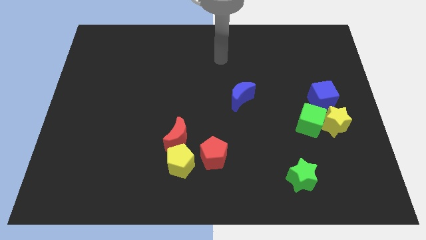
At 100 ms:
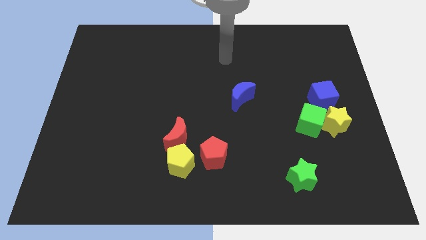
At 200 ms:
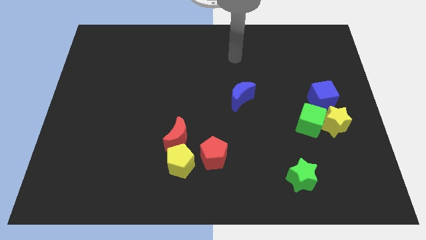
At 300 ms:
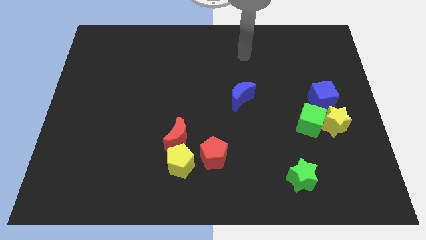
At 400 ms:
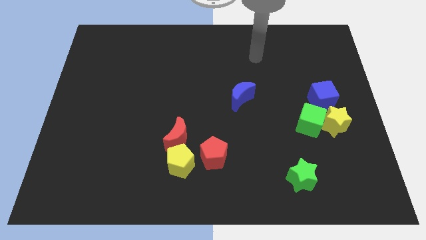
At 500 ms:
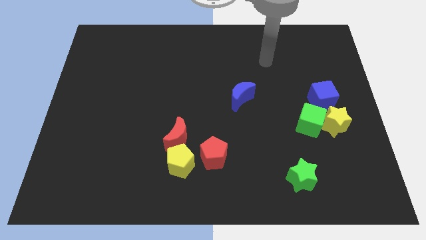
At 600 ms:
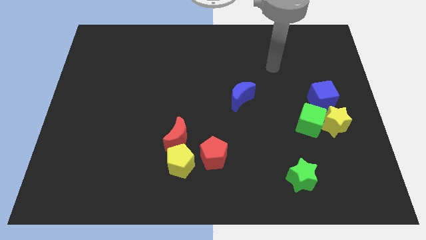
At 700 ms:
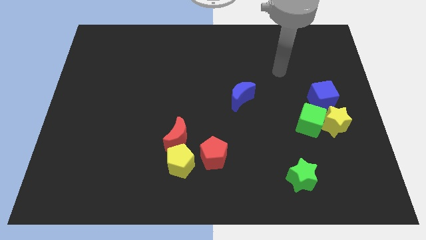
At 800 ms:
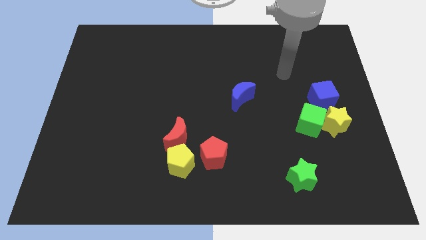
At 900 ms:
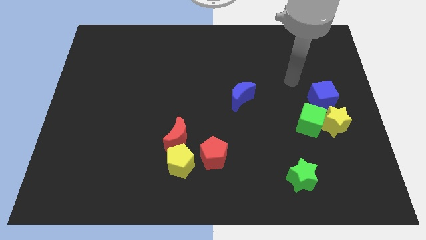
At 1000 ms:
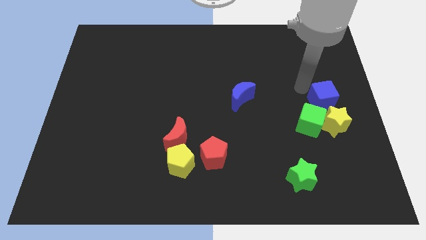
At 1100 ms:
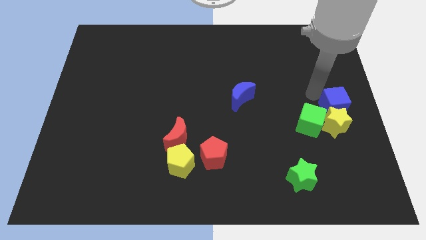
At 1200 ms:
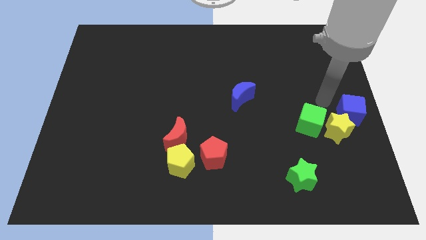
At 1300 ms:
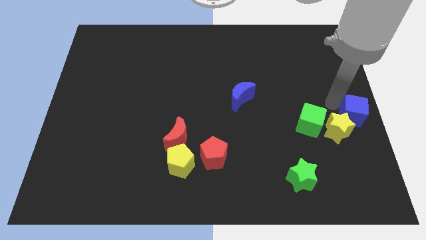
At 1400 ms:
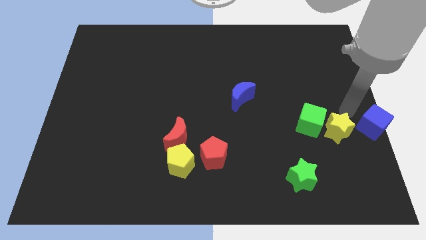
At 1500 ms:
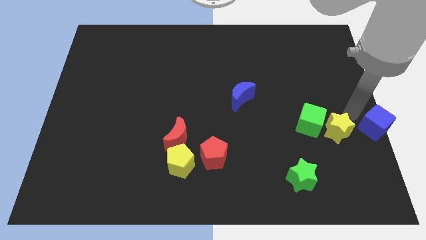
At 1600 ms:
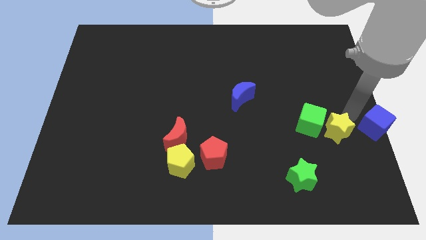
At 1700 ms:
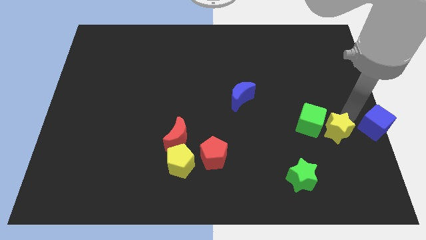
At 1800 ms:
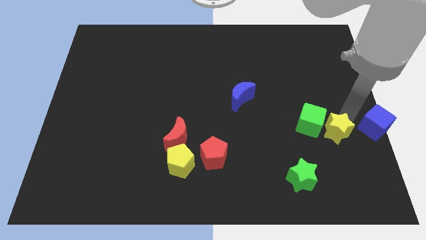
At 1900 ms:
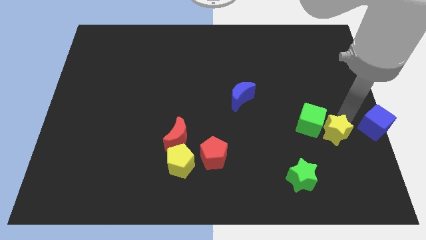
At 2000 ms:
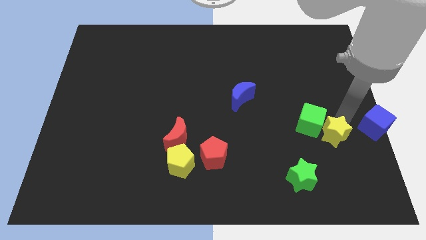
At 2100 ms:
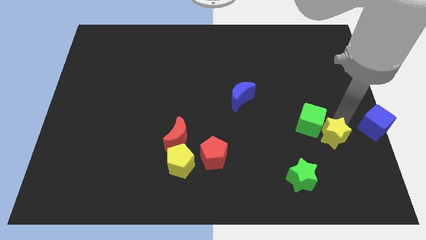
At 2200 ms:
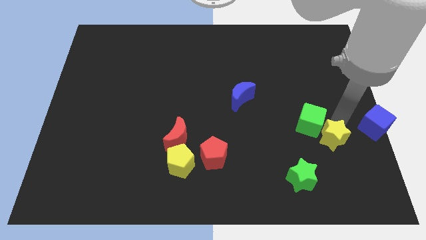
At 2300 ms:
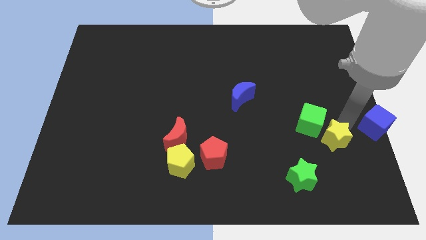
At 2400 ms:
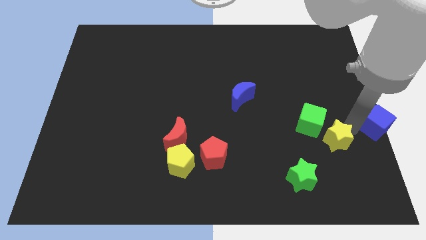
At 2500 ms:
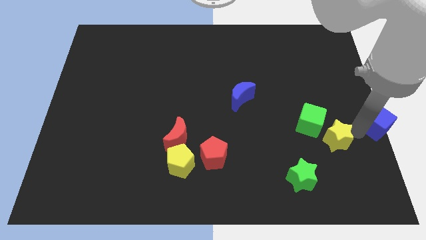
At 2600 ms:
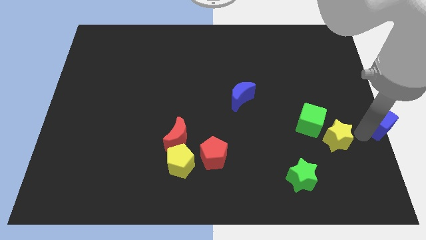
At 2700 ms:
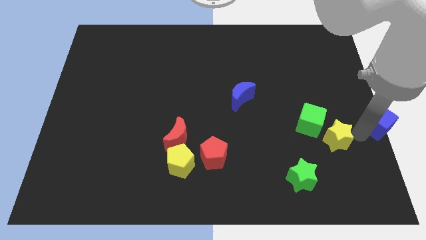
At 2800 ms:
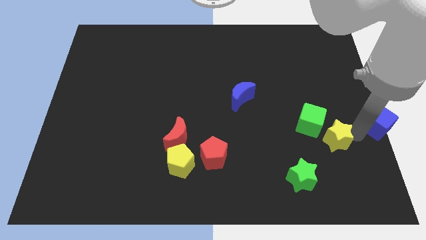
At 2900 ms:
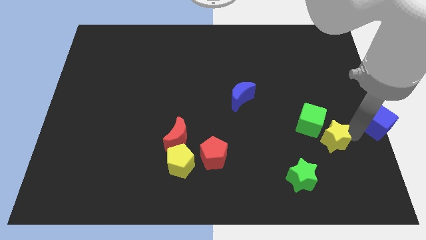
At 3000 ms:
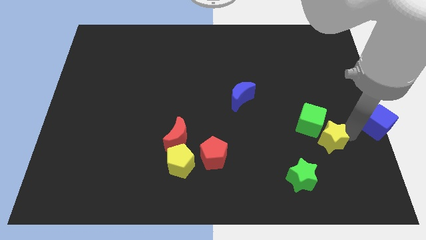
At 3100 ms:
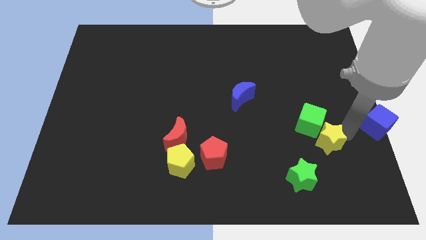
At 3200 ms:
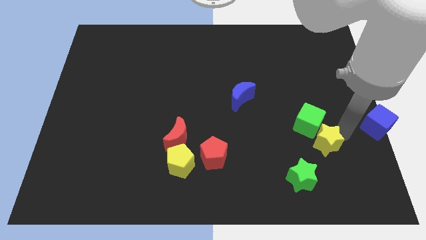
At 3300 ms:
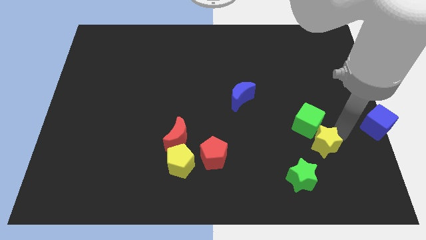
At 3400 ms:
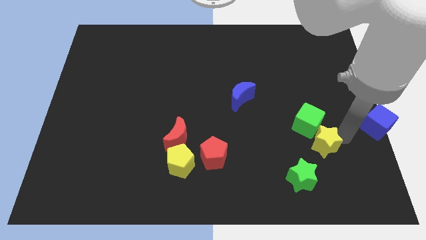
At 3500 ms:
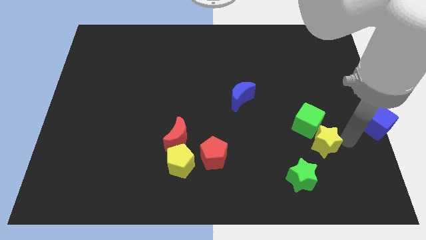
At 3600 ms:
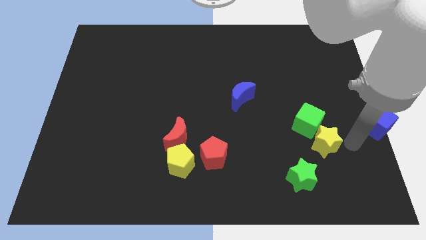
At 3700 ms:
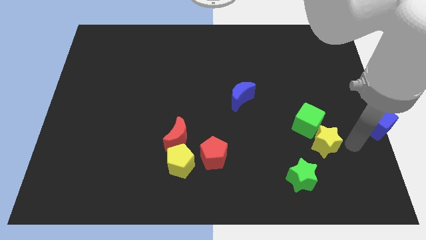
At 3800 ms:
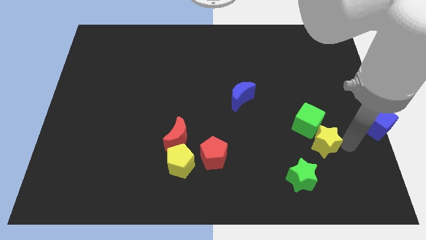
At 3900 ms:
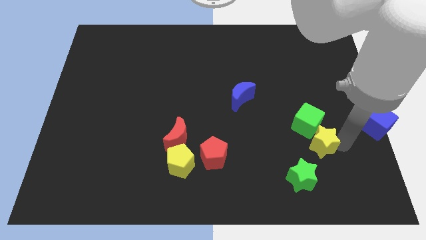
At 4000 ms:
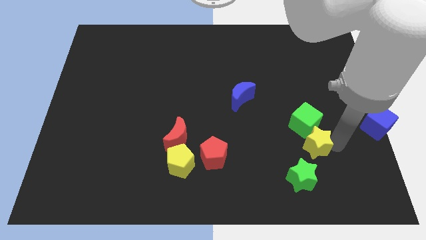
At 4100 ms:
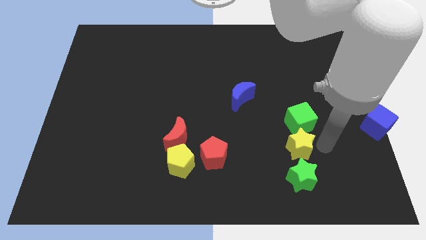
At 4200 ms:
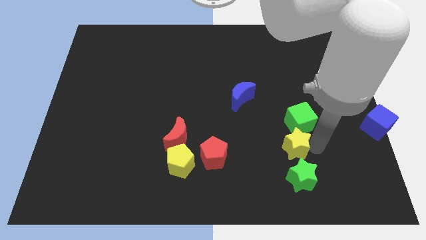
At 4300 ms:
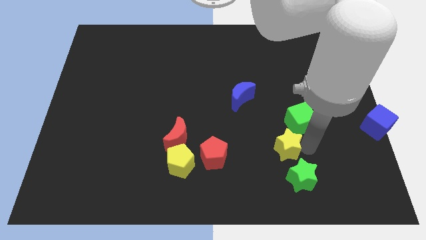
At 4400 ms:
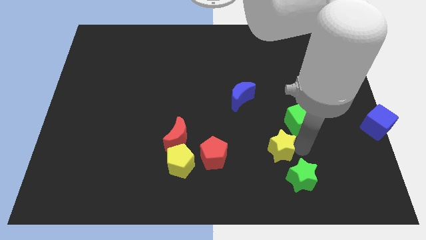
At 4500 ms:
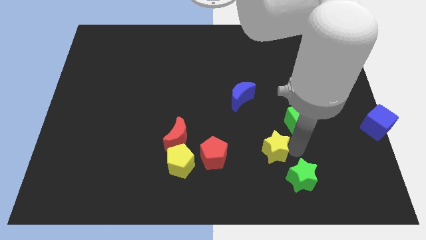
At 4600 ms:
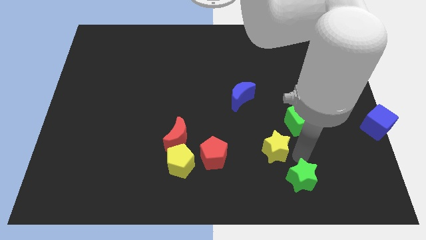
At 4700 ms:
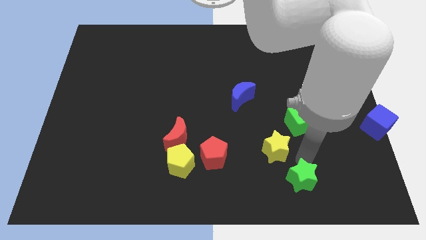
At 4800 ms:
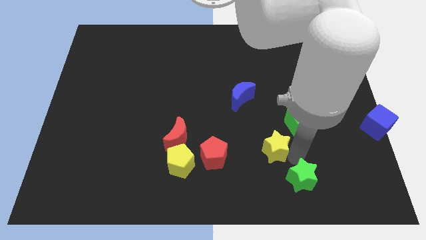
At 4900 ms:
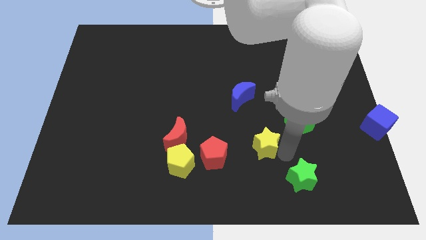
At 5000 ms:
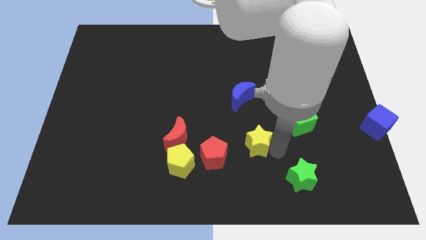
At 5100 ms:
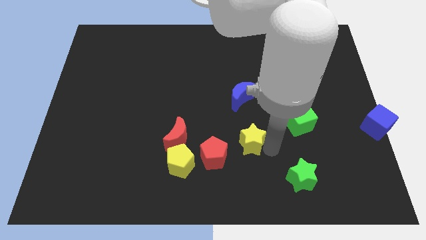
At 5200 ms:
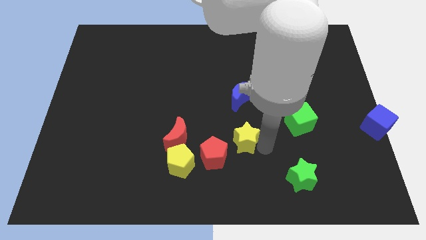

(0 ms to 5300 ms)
slide the yellow star to the left

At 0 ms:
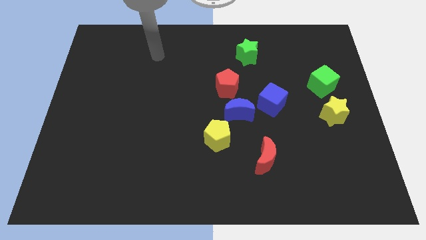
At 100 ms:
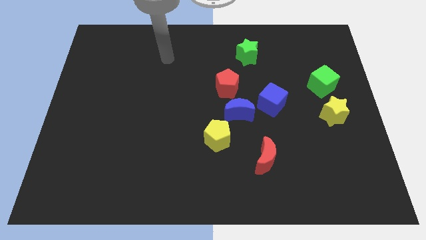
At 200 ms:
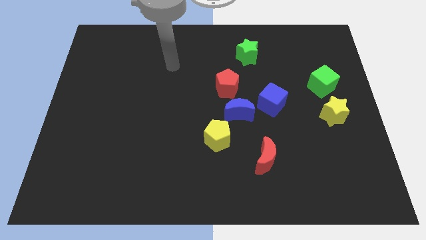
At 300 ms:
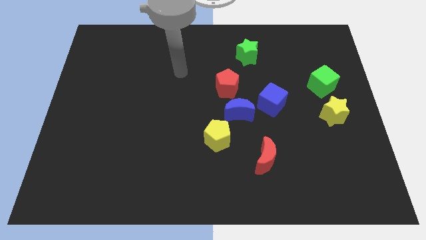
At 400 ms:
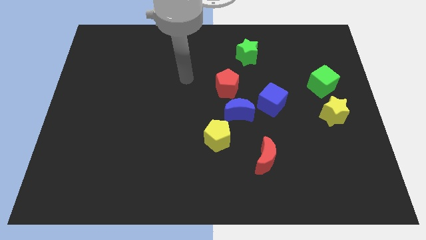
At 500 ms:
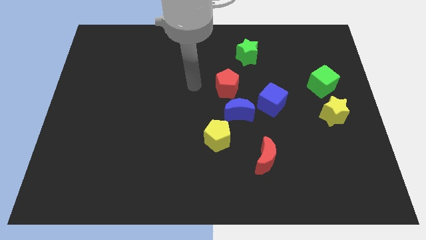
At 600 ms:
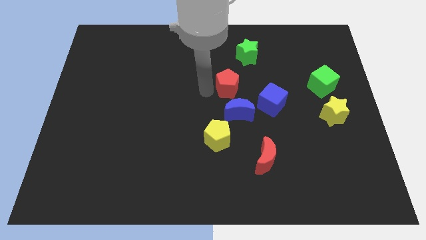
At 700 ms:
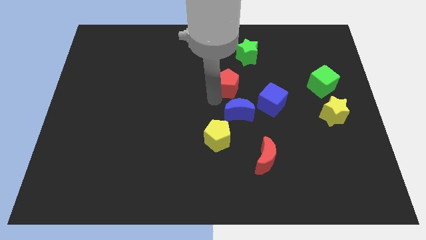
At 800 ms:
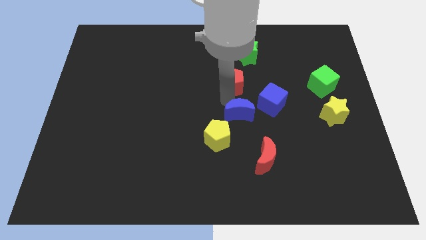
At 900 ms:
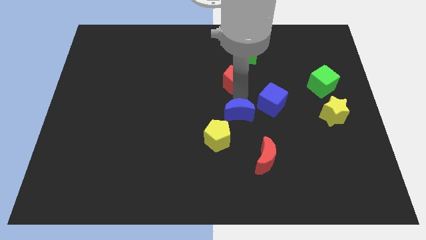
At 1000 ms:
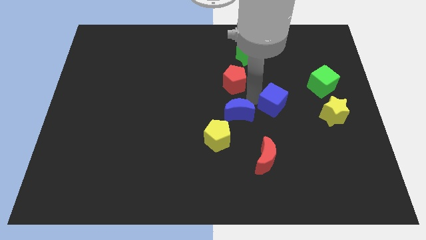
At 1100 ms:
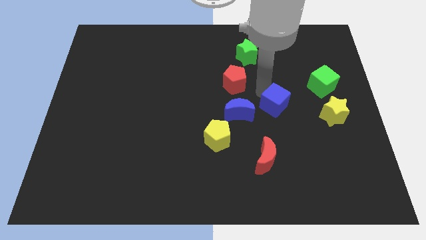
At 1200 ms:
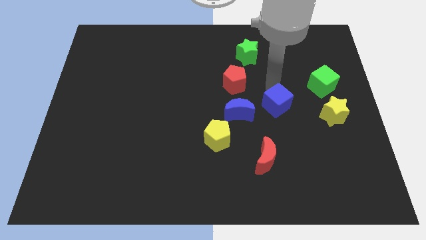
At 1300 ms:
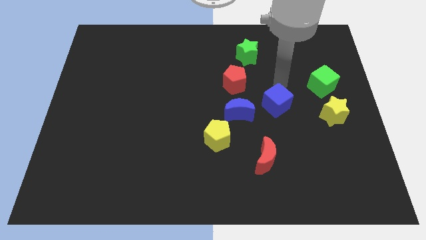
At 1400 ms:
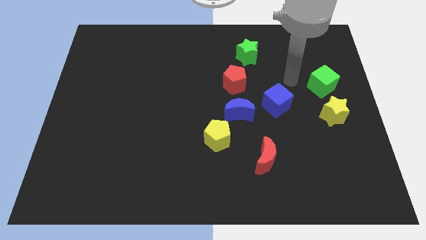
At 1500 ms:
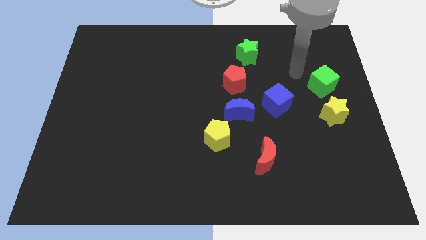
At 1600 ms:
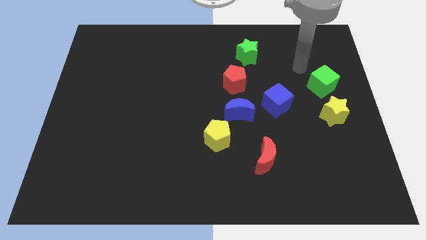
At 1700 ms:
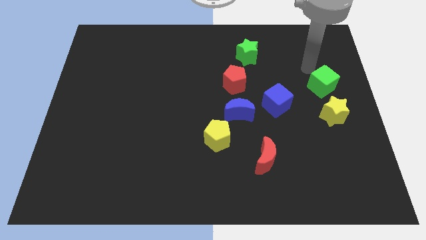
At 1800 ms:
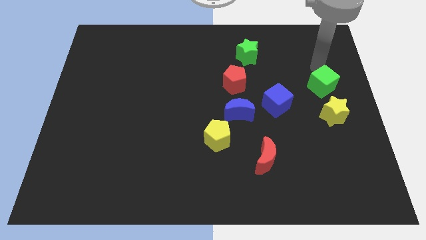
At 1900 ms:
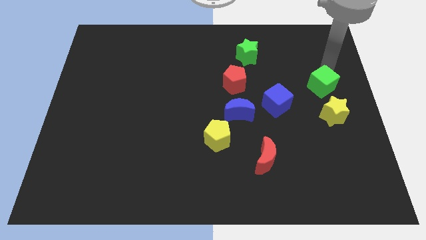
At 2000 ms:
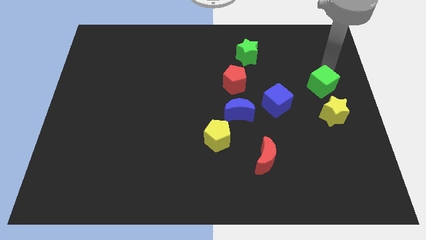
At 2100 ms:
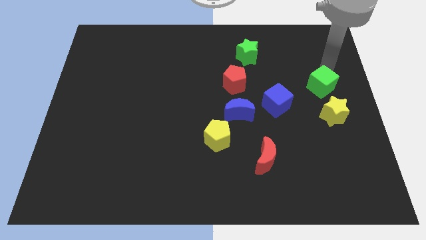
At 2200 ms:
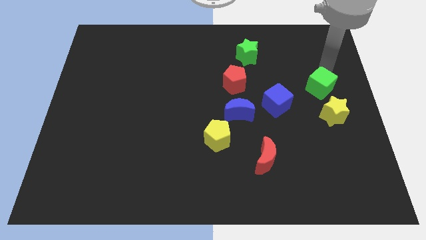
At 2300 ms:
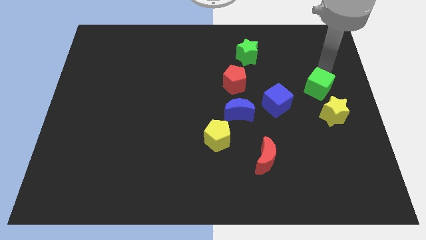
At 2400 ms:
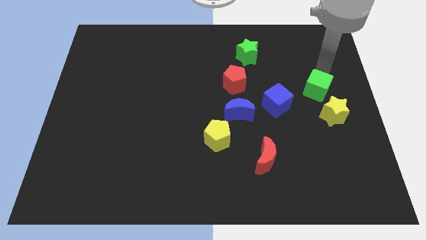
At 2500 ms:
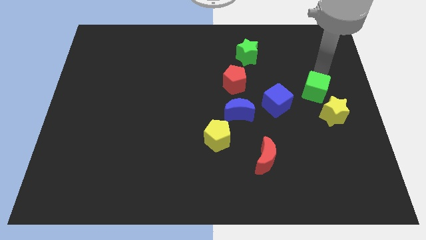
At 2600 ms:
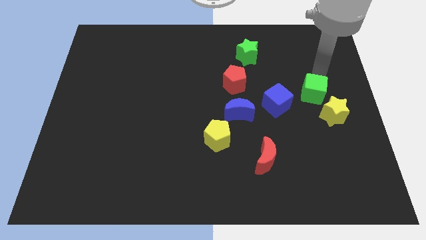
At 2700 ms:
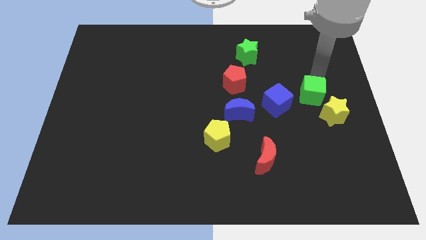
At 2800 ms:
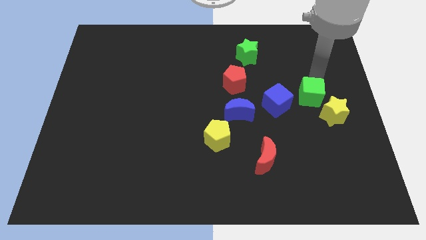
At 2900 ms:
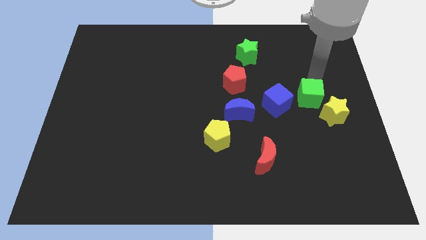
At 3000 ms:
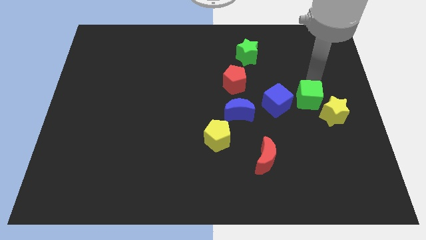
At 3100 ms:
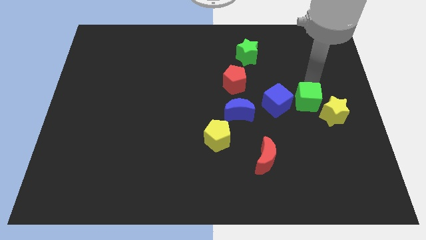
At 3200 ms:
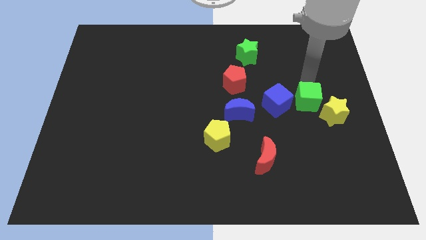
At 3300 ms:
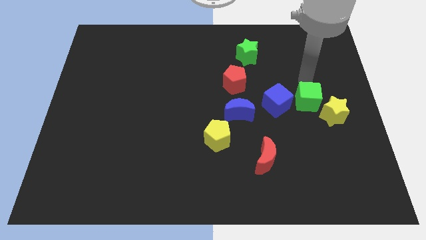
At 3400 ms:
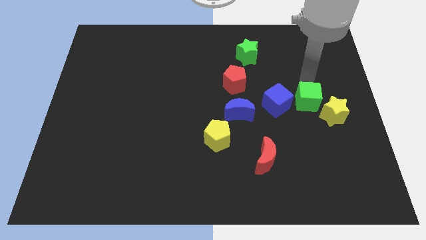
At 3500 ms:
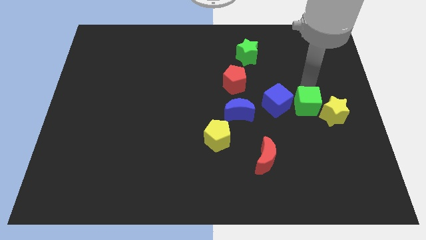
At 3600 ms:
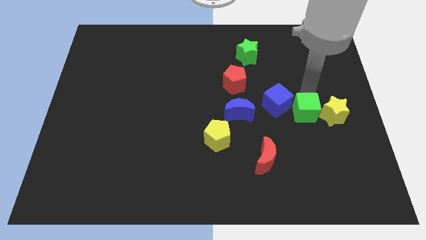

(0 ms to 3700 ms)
move the green cube a little bit downwards
